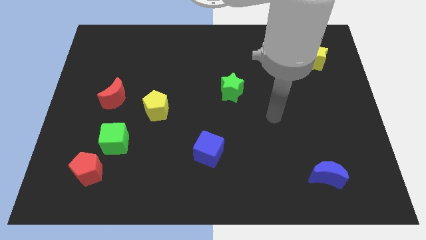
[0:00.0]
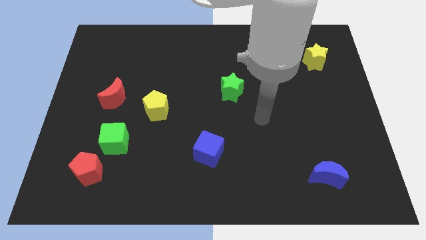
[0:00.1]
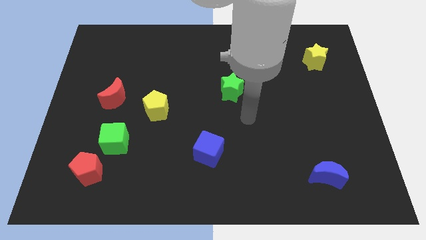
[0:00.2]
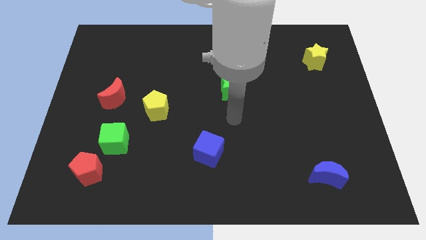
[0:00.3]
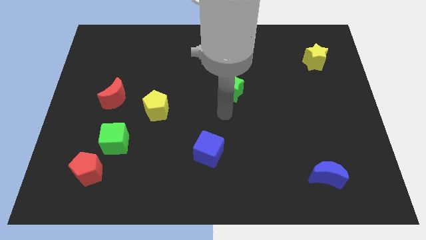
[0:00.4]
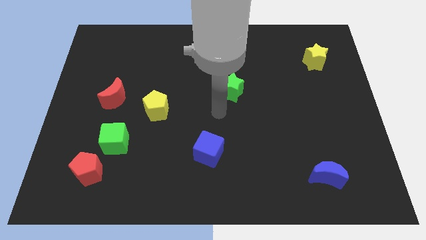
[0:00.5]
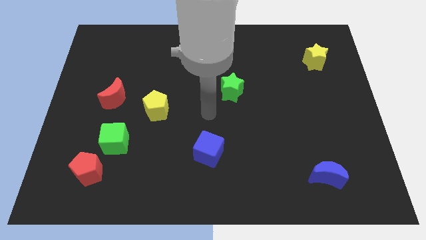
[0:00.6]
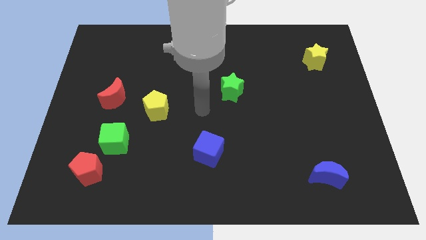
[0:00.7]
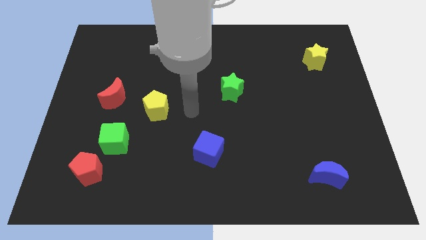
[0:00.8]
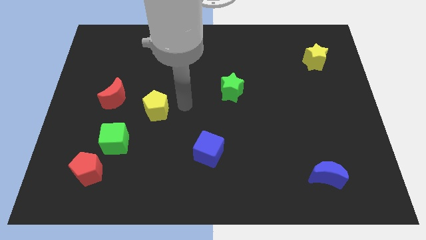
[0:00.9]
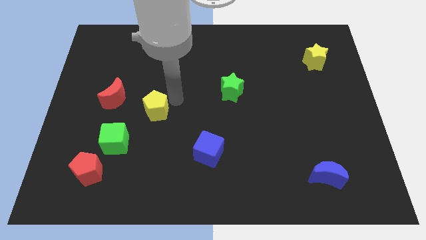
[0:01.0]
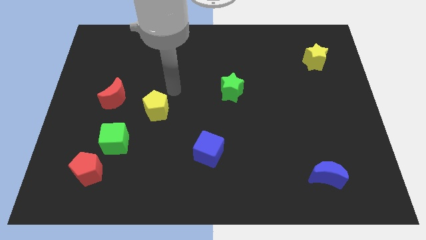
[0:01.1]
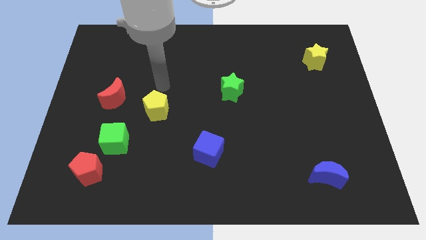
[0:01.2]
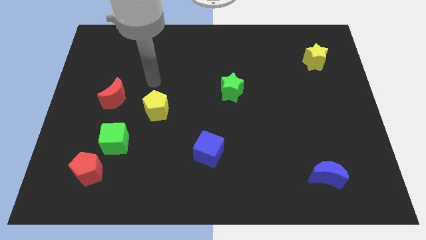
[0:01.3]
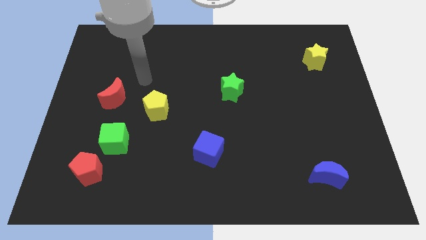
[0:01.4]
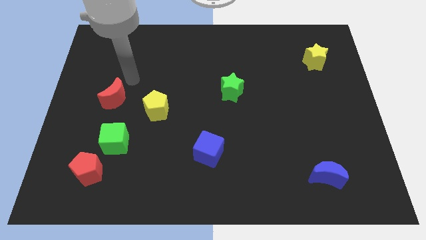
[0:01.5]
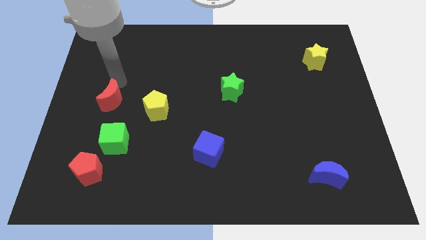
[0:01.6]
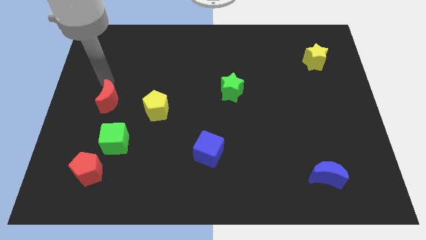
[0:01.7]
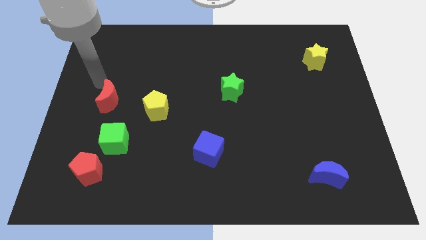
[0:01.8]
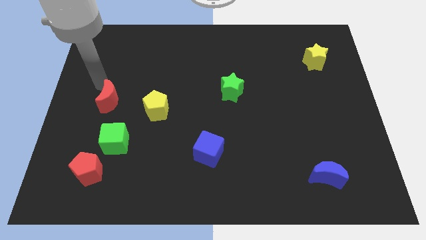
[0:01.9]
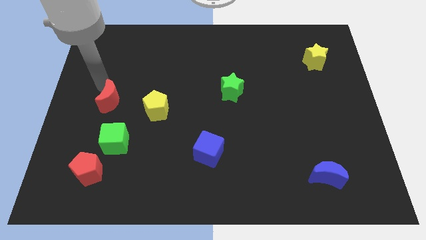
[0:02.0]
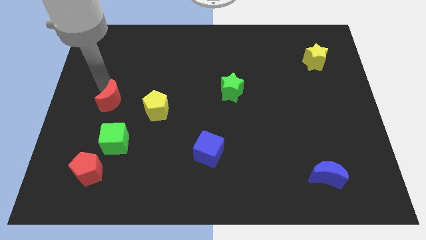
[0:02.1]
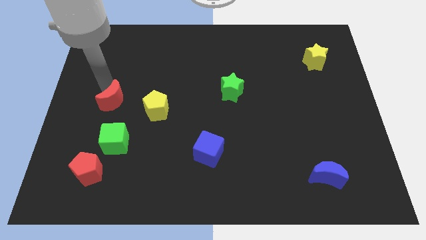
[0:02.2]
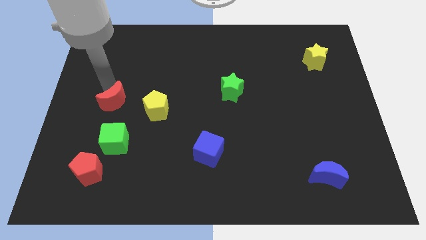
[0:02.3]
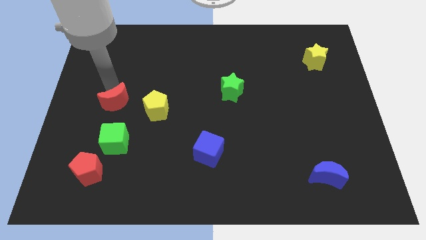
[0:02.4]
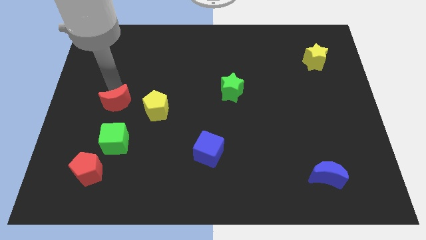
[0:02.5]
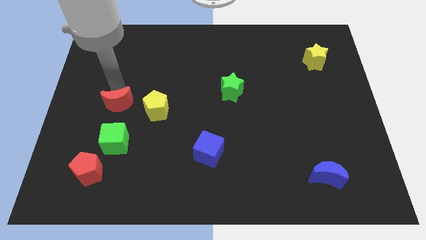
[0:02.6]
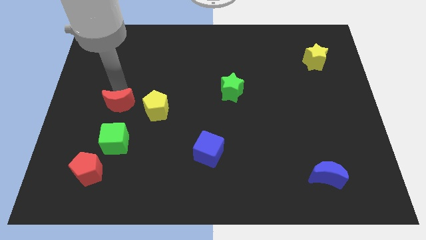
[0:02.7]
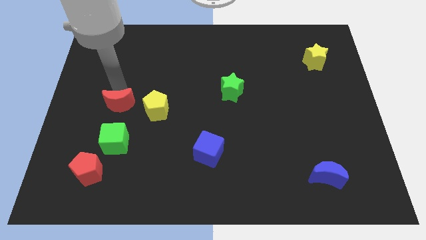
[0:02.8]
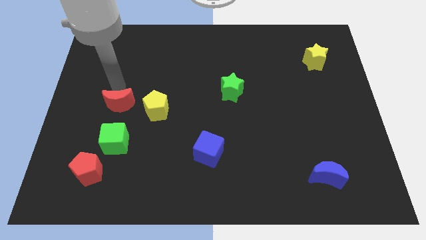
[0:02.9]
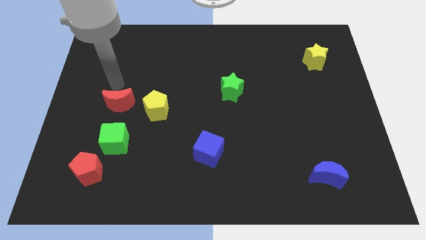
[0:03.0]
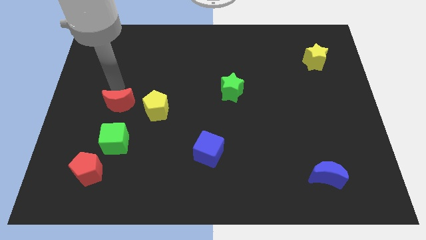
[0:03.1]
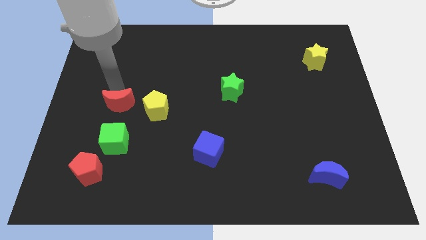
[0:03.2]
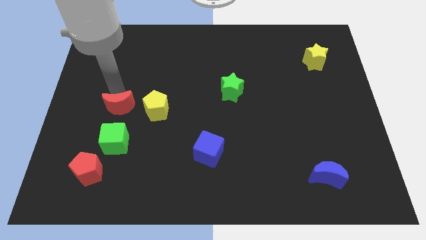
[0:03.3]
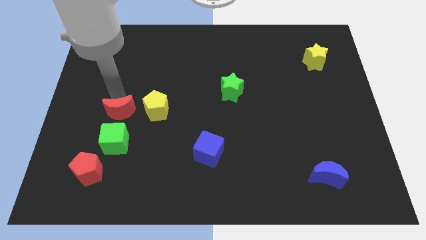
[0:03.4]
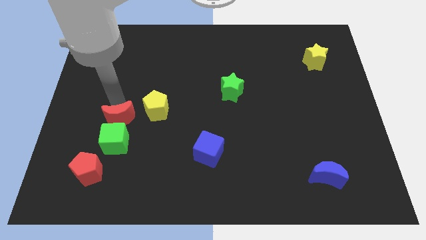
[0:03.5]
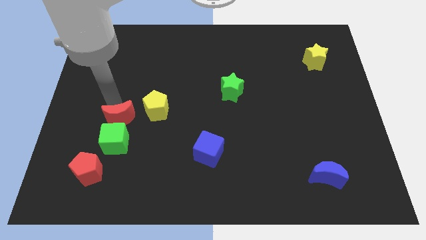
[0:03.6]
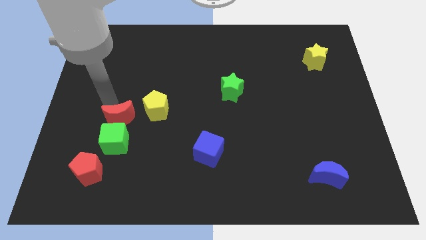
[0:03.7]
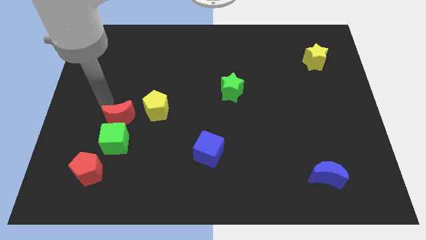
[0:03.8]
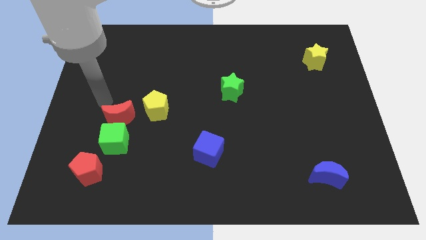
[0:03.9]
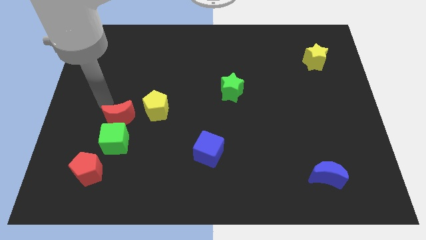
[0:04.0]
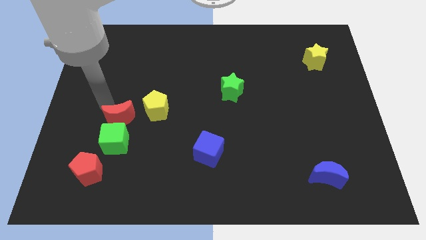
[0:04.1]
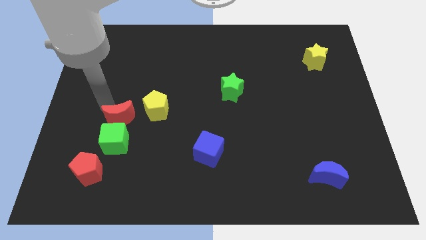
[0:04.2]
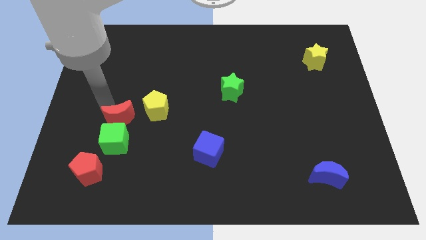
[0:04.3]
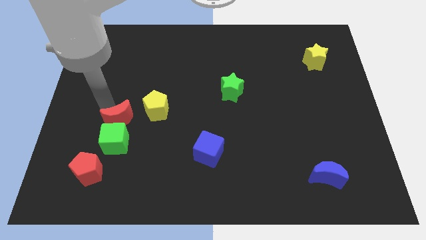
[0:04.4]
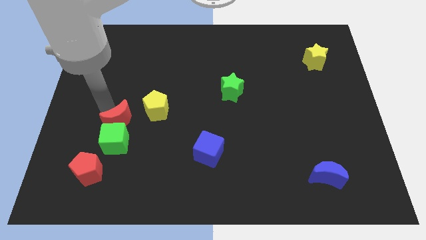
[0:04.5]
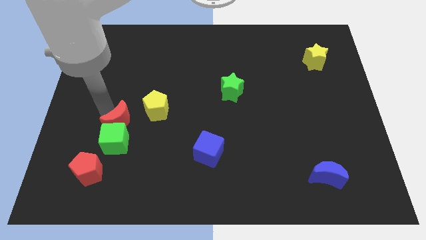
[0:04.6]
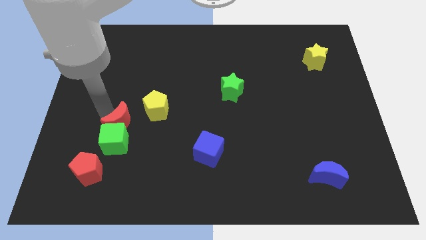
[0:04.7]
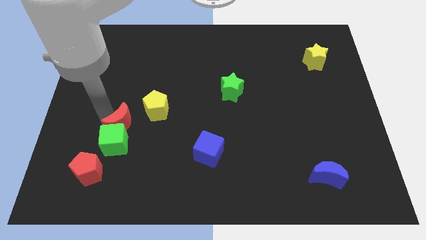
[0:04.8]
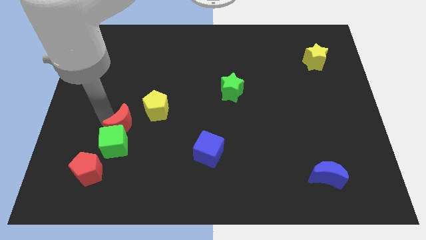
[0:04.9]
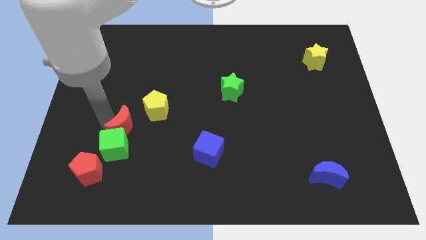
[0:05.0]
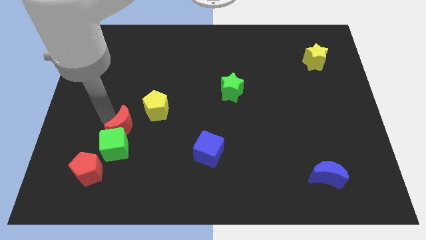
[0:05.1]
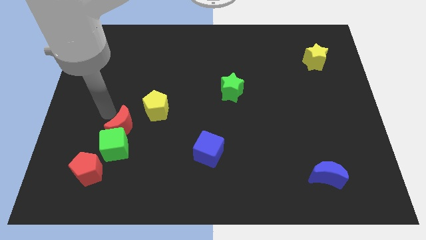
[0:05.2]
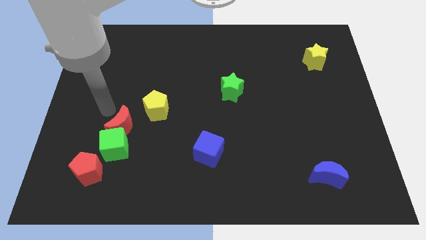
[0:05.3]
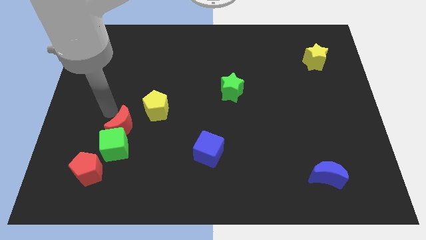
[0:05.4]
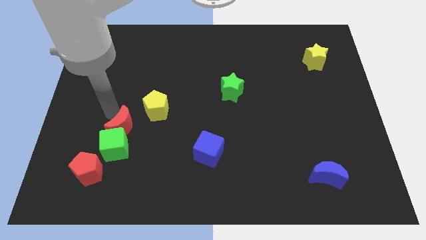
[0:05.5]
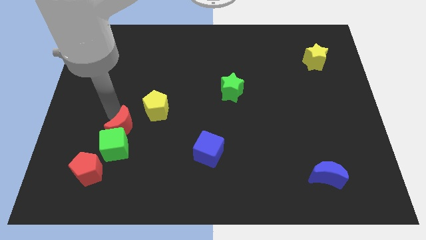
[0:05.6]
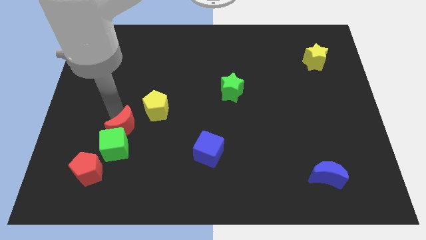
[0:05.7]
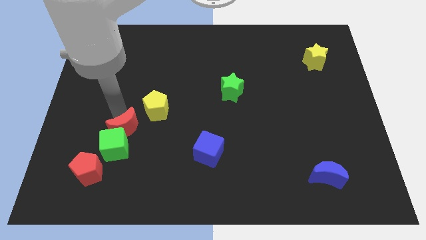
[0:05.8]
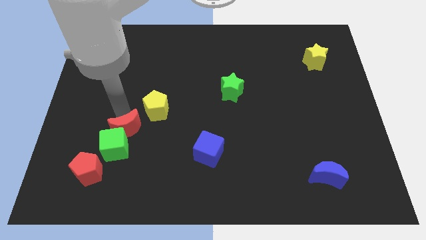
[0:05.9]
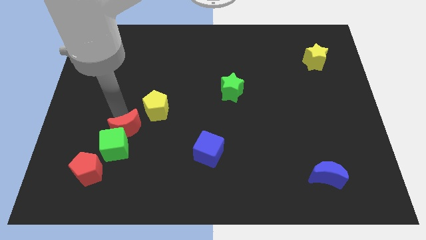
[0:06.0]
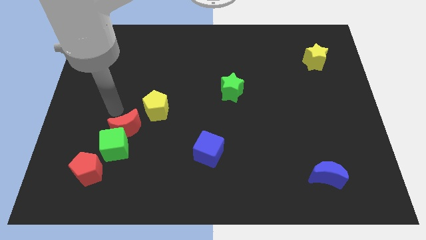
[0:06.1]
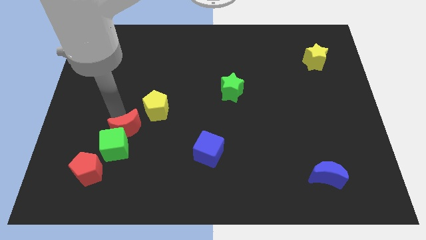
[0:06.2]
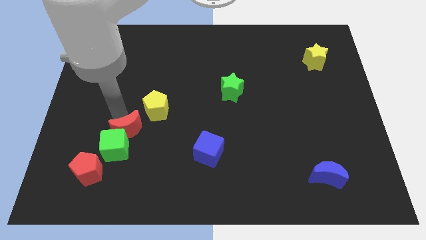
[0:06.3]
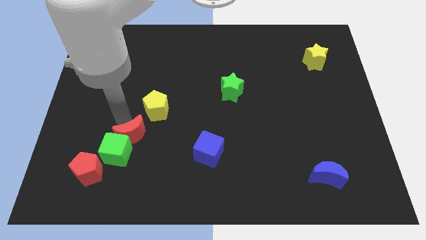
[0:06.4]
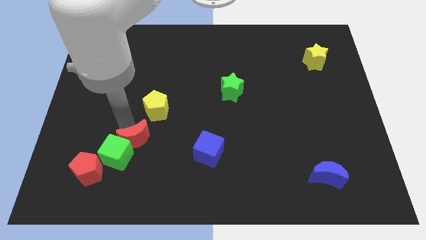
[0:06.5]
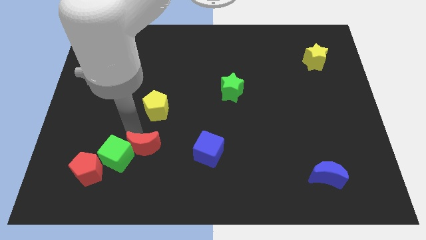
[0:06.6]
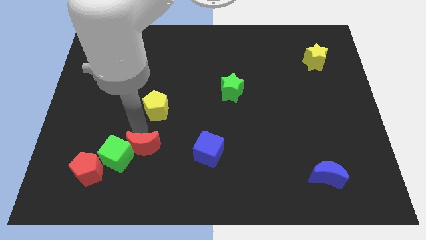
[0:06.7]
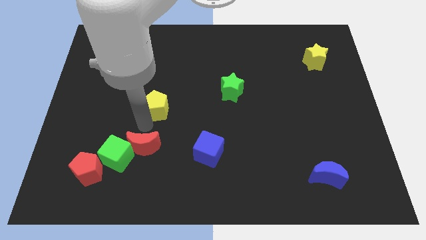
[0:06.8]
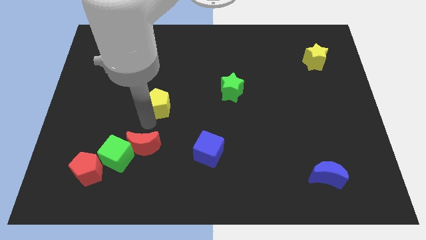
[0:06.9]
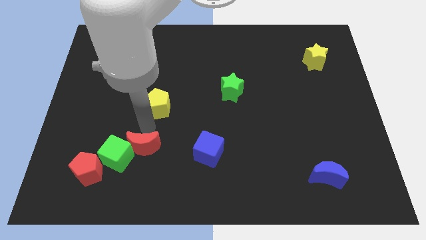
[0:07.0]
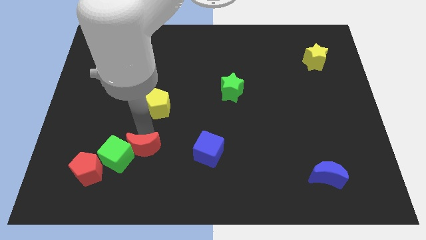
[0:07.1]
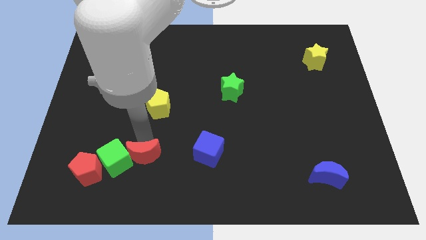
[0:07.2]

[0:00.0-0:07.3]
slide the red moon to the bottom right side of the green cube
